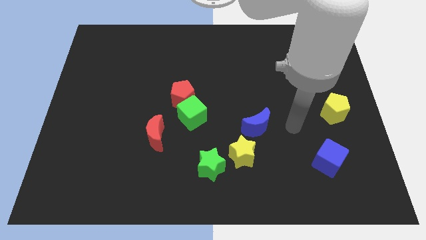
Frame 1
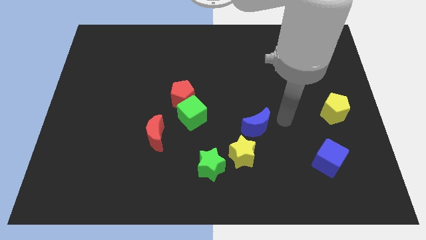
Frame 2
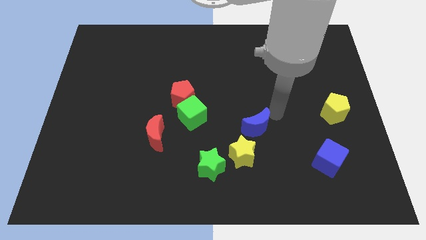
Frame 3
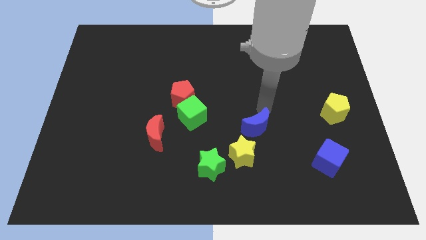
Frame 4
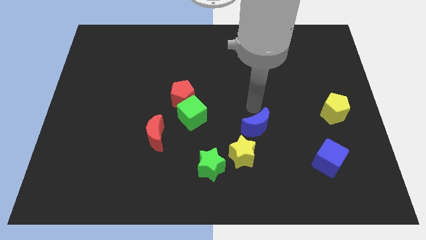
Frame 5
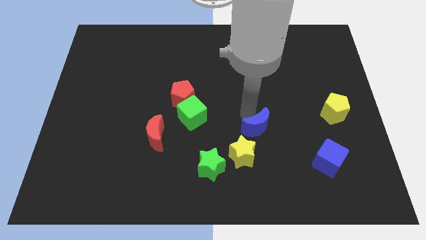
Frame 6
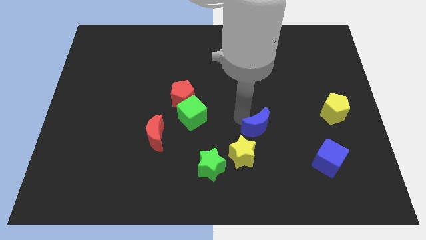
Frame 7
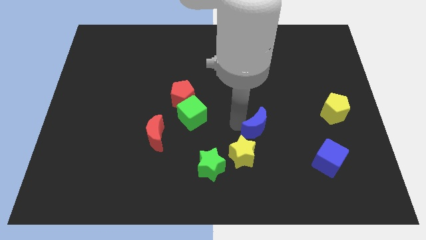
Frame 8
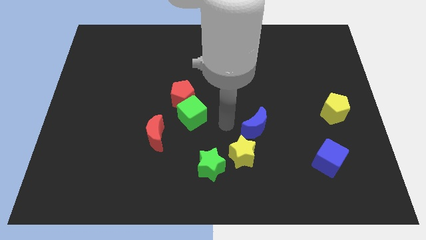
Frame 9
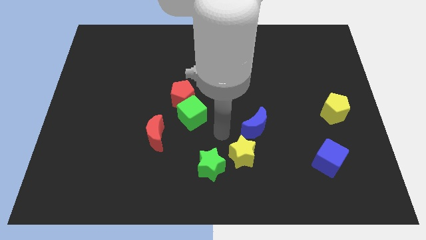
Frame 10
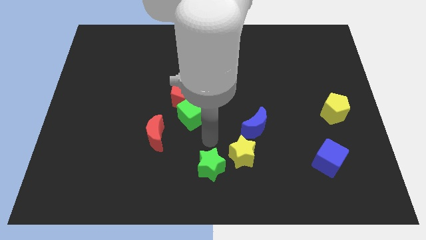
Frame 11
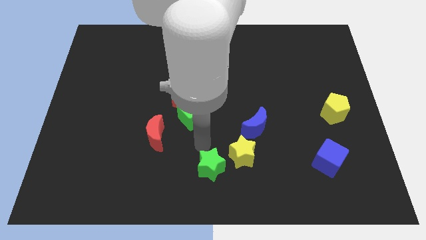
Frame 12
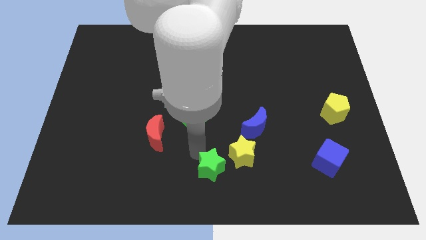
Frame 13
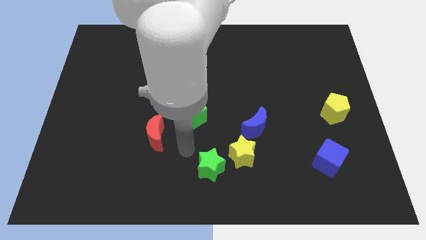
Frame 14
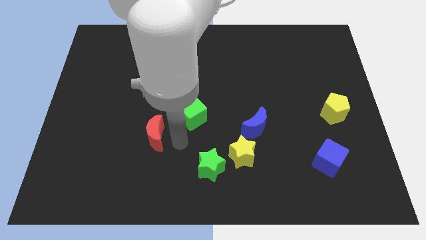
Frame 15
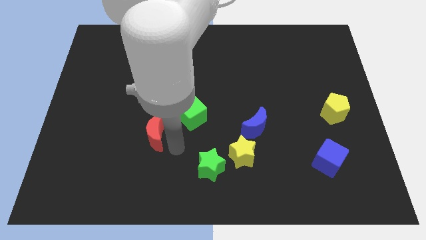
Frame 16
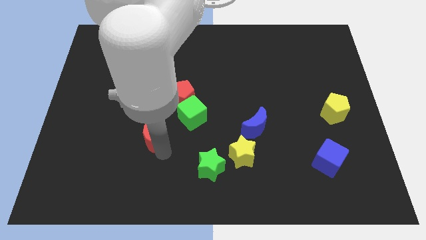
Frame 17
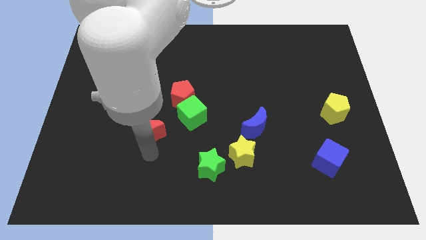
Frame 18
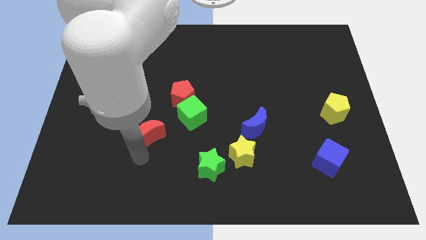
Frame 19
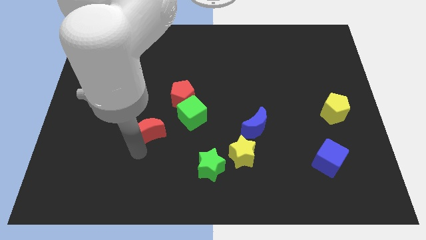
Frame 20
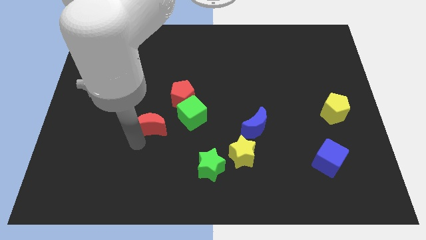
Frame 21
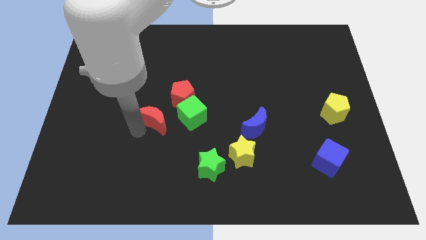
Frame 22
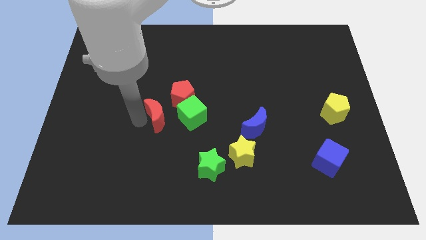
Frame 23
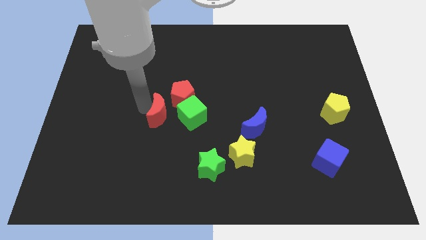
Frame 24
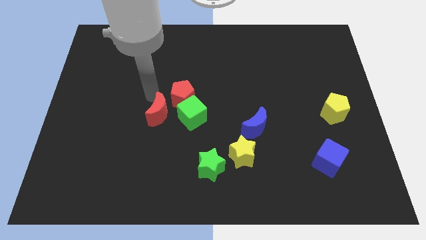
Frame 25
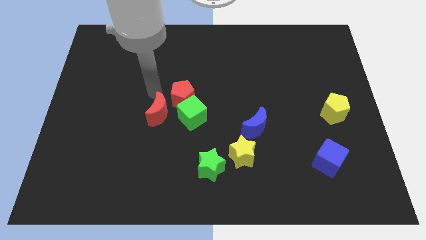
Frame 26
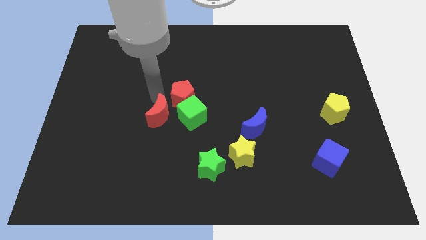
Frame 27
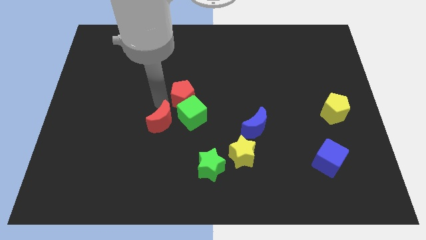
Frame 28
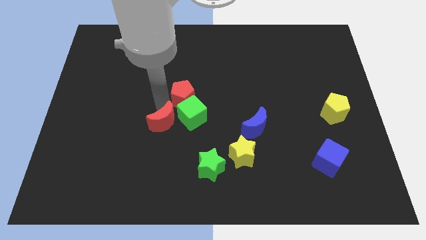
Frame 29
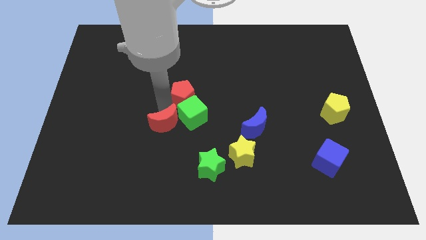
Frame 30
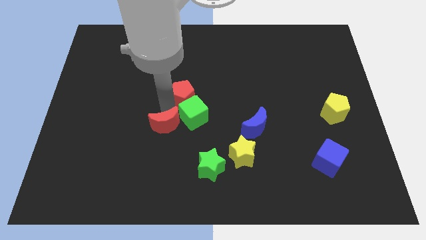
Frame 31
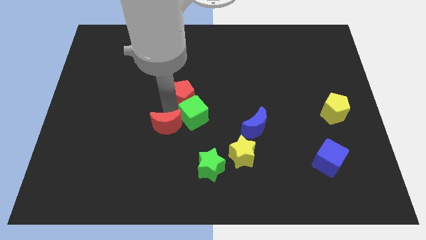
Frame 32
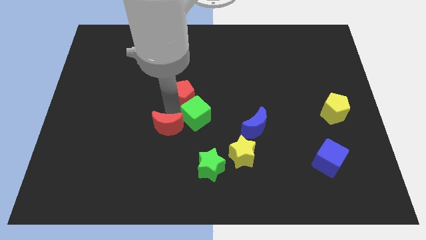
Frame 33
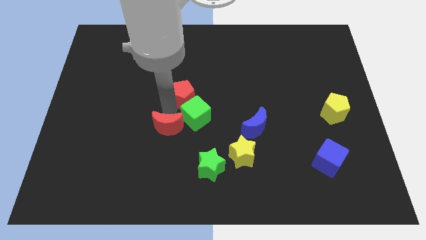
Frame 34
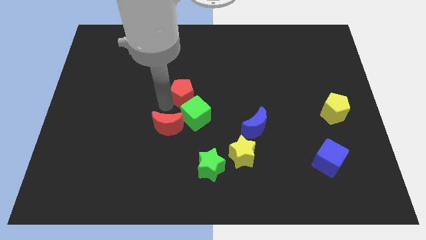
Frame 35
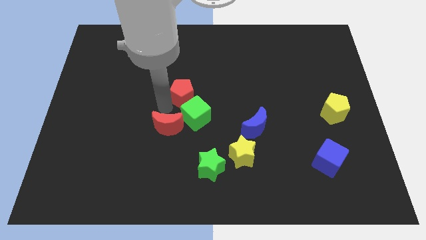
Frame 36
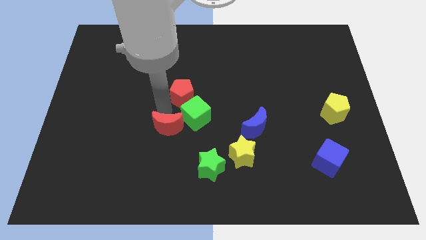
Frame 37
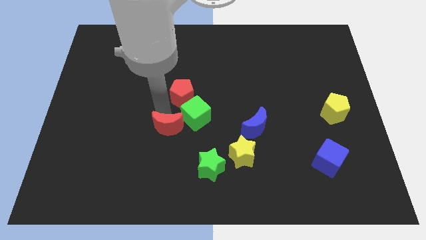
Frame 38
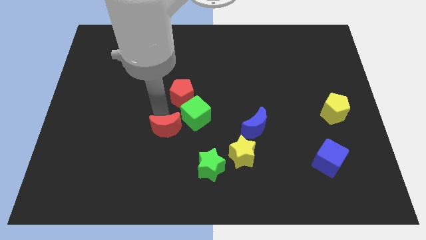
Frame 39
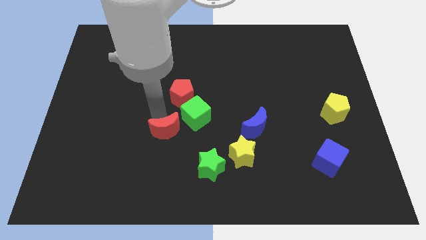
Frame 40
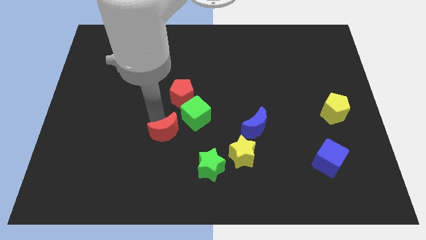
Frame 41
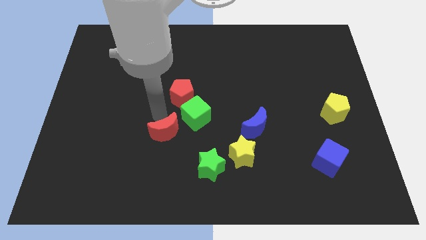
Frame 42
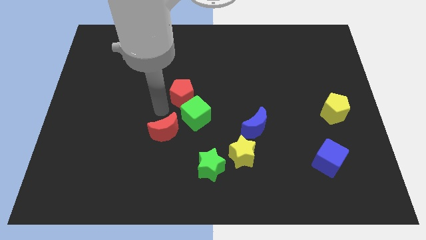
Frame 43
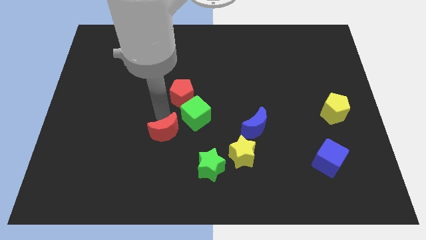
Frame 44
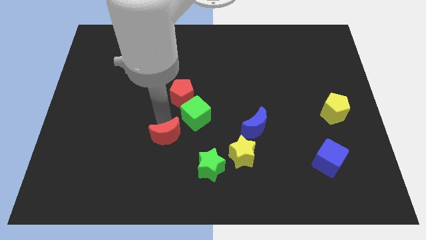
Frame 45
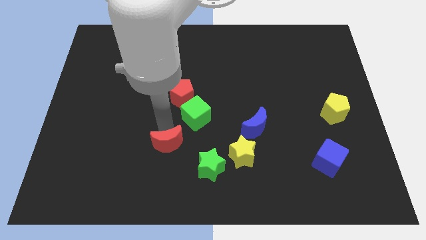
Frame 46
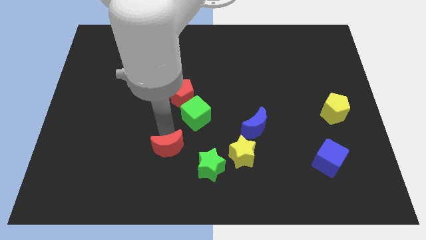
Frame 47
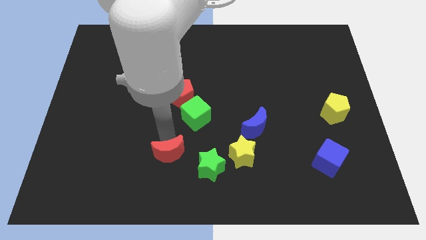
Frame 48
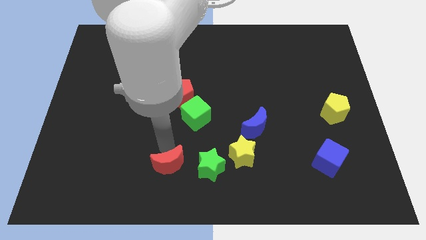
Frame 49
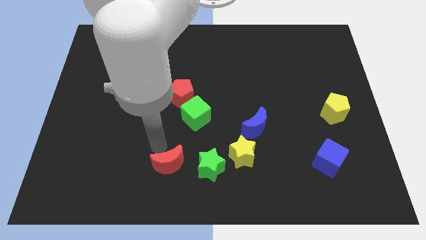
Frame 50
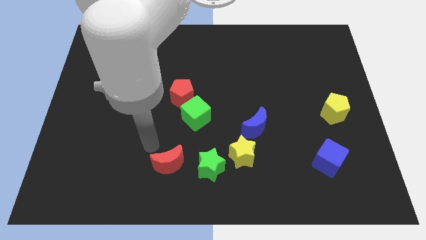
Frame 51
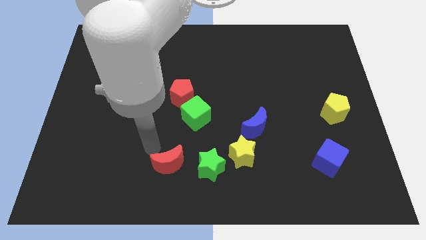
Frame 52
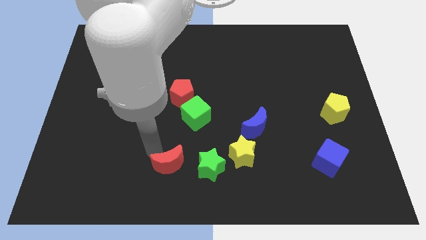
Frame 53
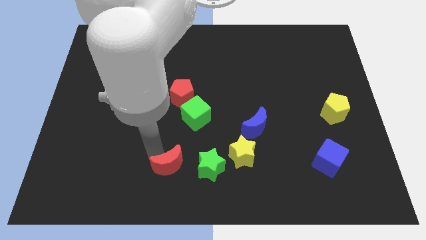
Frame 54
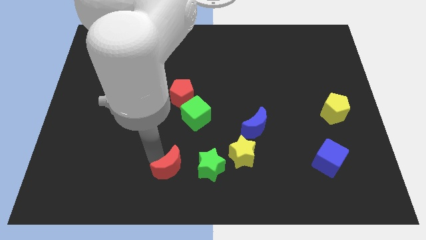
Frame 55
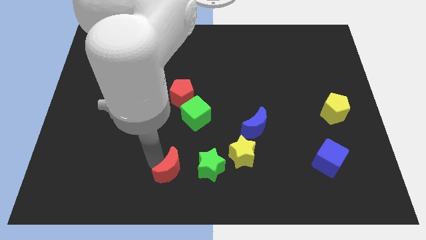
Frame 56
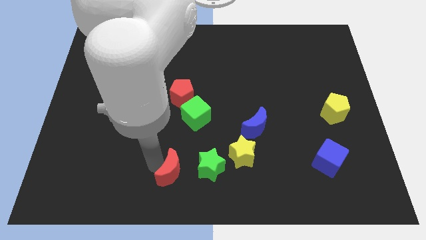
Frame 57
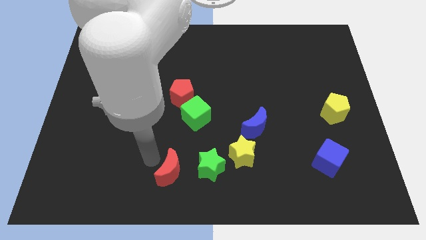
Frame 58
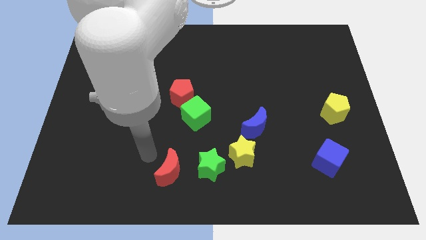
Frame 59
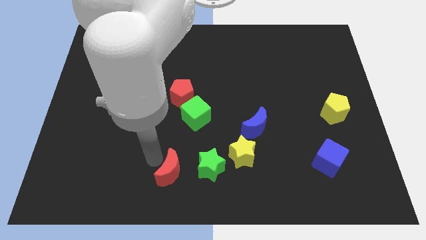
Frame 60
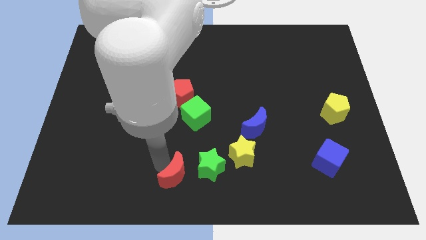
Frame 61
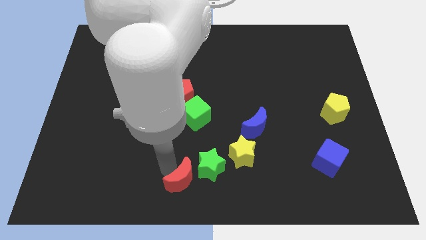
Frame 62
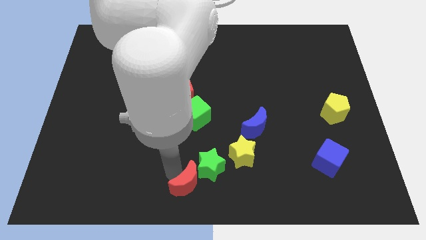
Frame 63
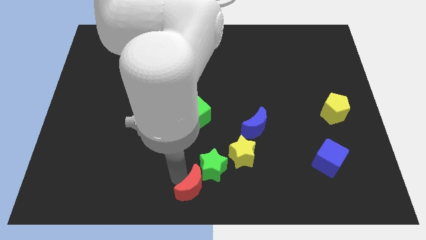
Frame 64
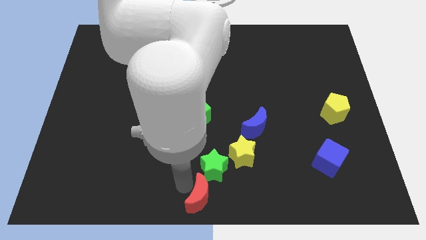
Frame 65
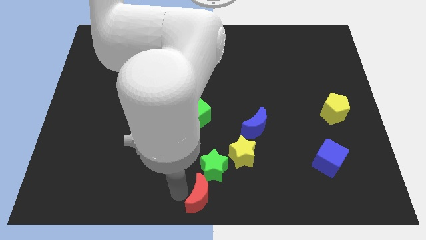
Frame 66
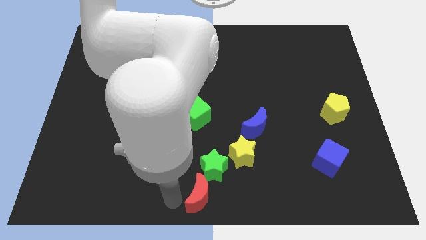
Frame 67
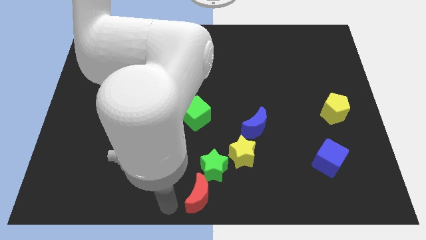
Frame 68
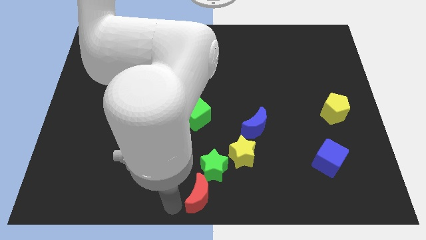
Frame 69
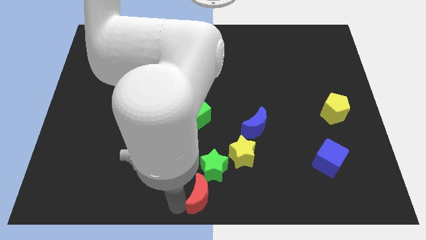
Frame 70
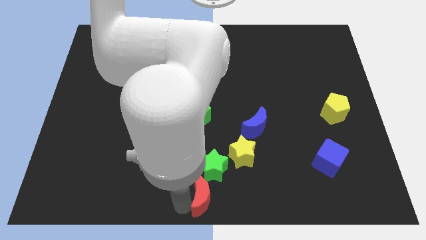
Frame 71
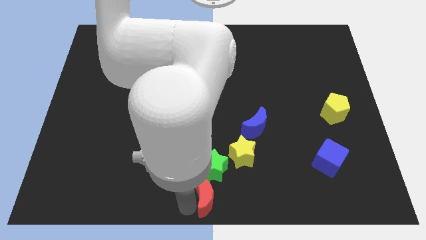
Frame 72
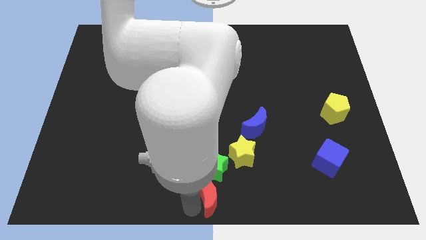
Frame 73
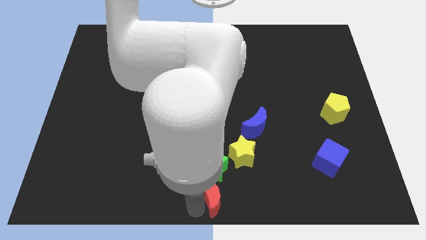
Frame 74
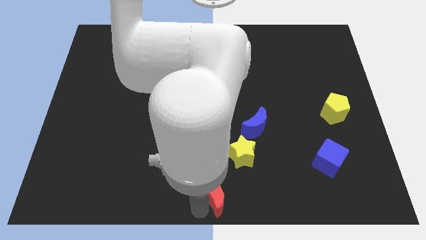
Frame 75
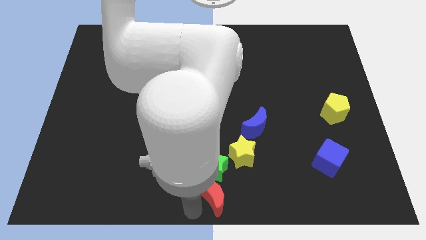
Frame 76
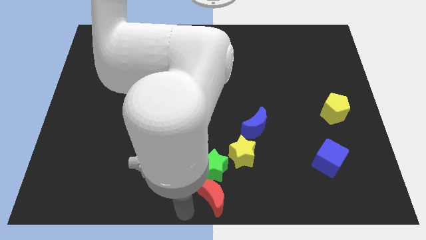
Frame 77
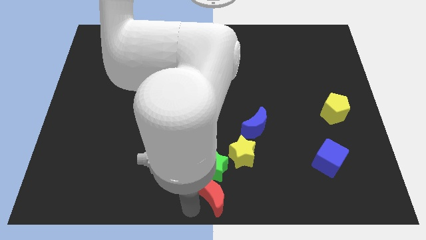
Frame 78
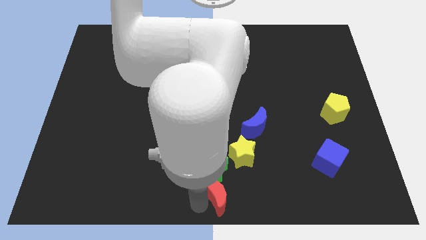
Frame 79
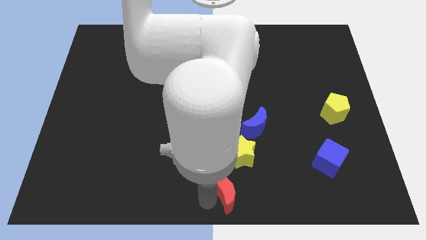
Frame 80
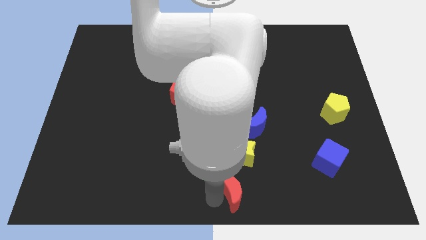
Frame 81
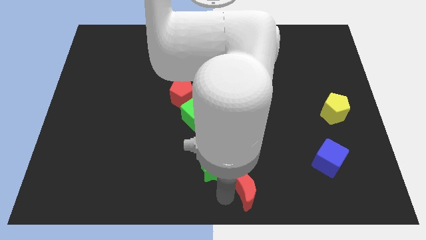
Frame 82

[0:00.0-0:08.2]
push the red moon right of the green star
